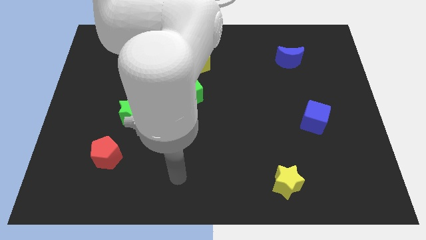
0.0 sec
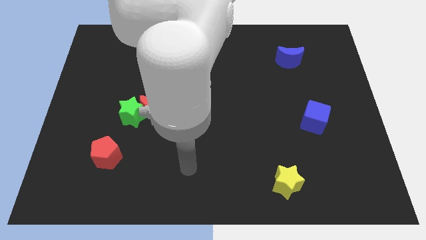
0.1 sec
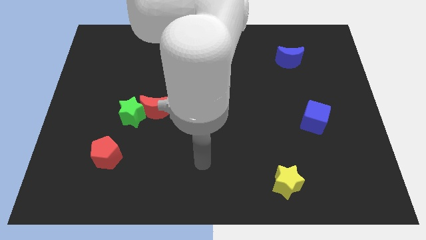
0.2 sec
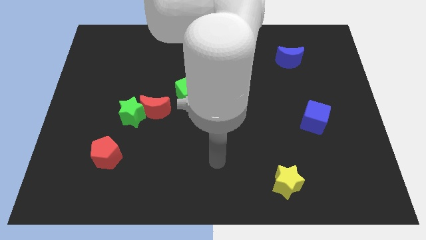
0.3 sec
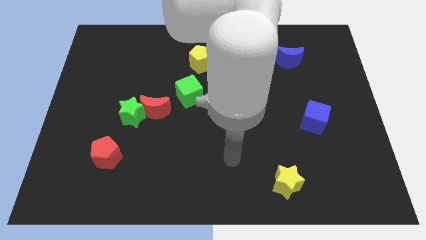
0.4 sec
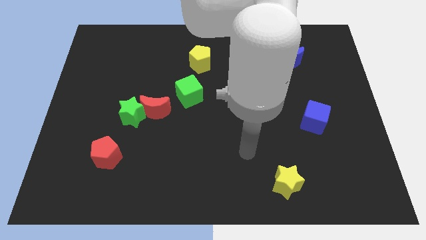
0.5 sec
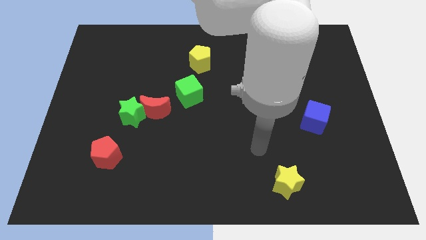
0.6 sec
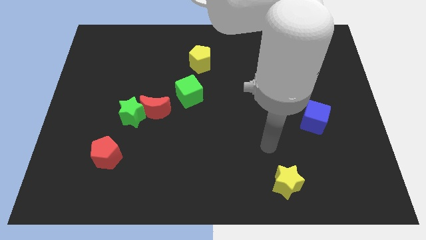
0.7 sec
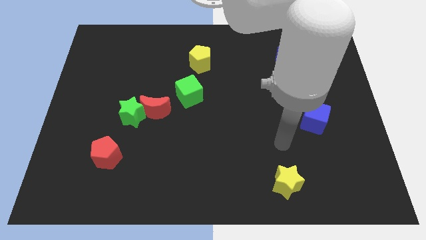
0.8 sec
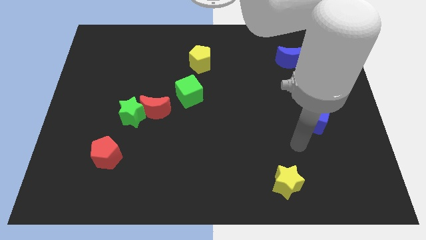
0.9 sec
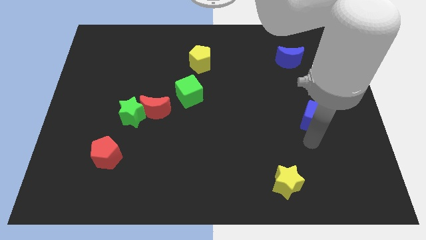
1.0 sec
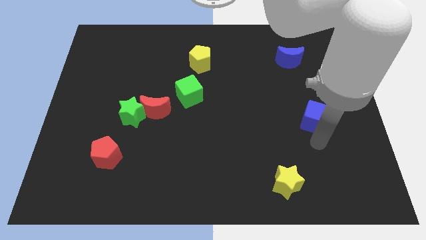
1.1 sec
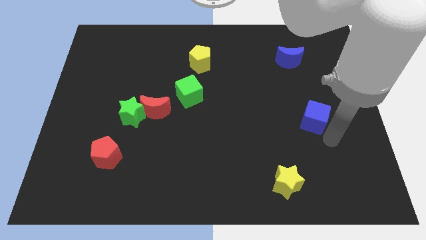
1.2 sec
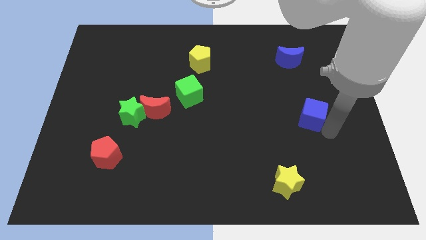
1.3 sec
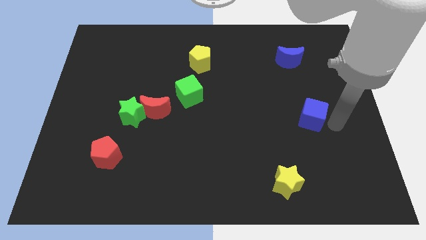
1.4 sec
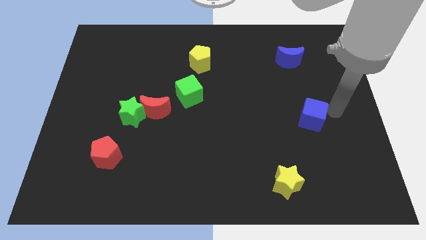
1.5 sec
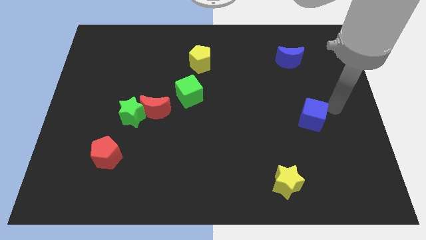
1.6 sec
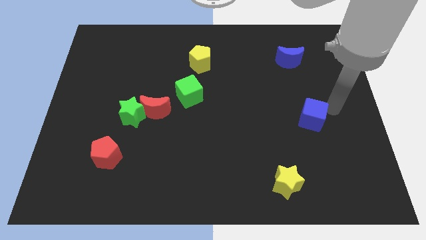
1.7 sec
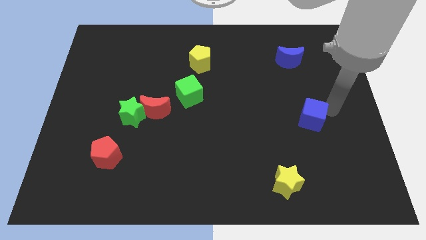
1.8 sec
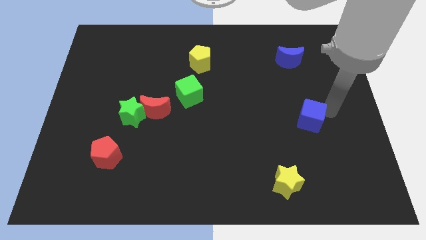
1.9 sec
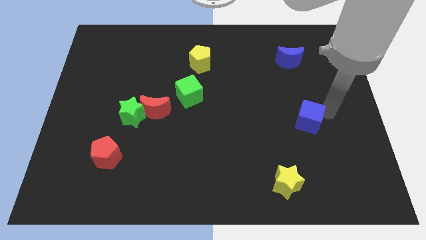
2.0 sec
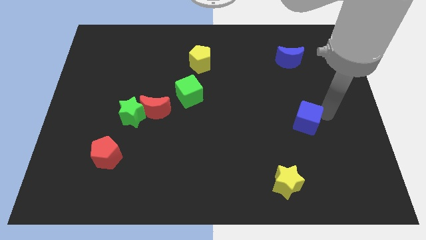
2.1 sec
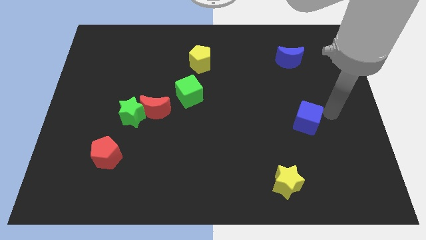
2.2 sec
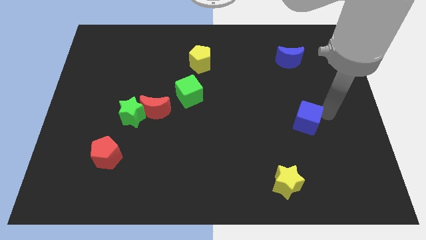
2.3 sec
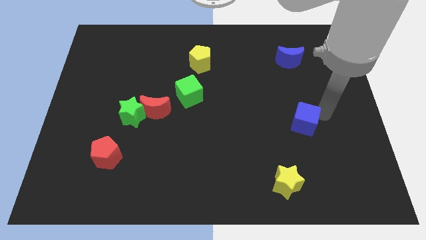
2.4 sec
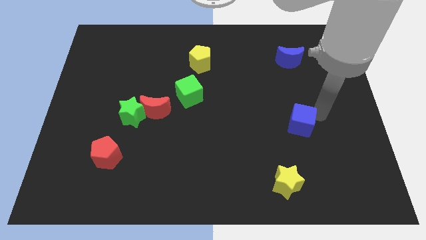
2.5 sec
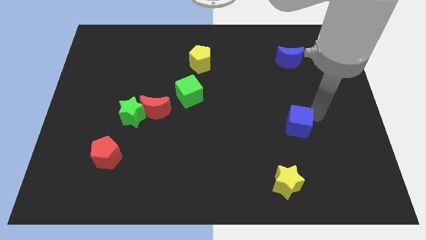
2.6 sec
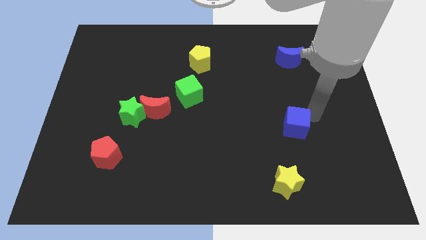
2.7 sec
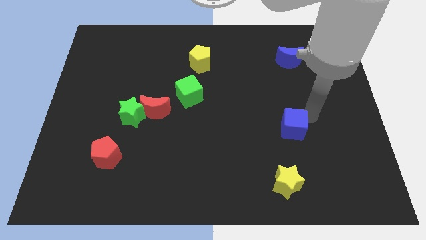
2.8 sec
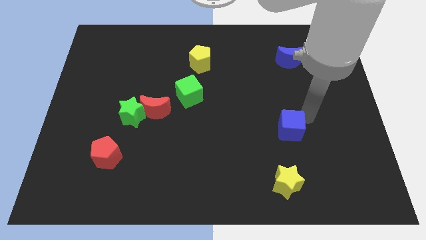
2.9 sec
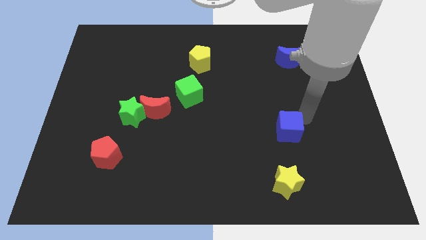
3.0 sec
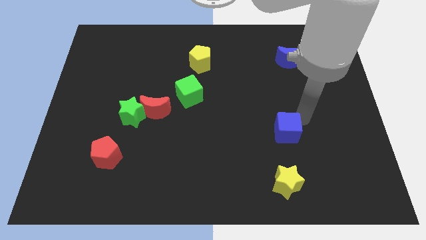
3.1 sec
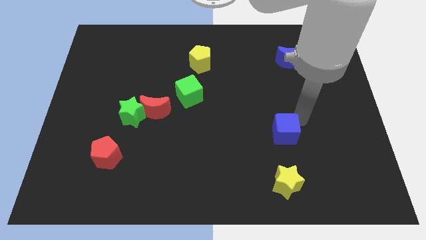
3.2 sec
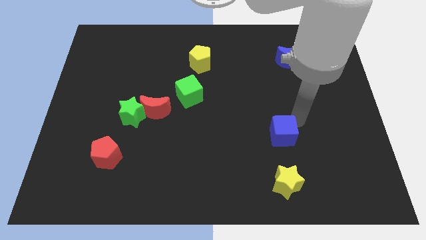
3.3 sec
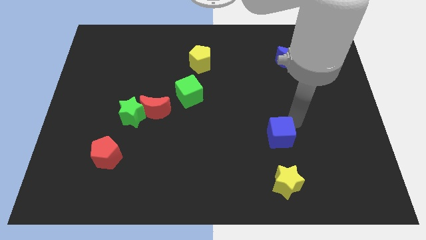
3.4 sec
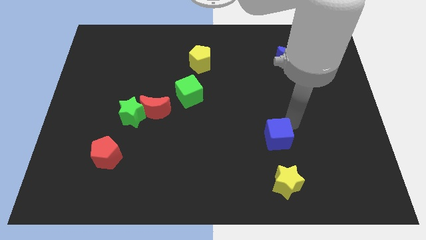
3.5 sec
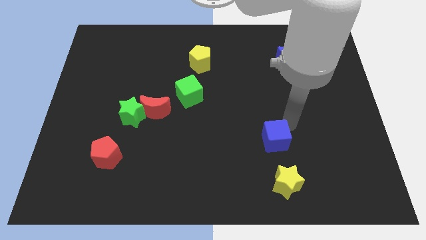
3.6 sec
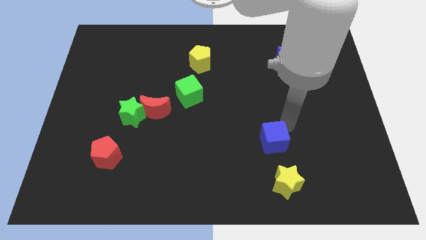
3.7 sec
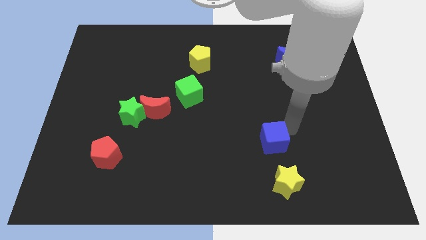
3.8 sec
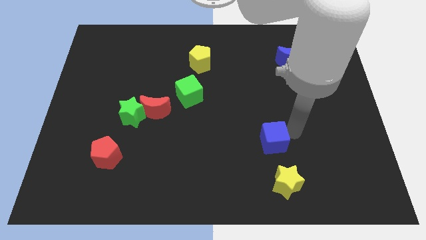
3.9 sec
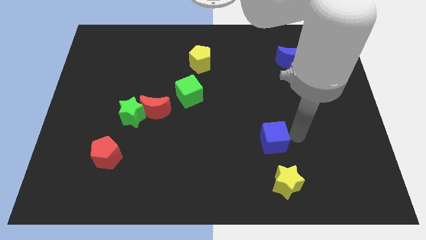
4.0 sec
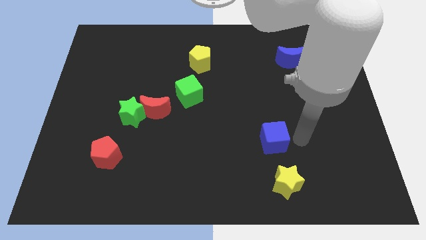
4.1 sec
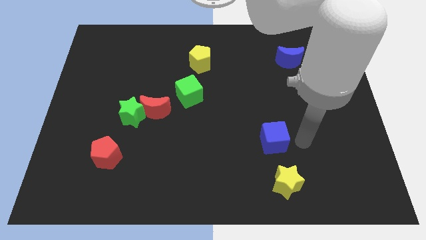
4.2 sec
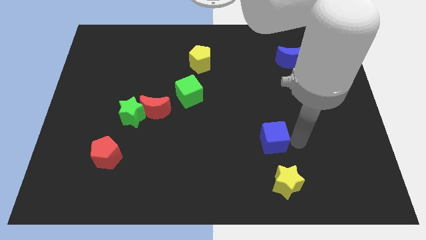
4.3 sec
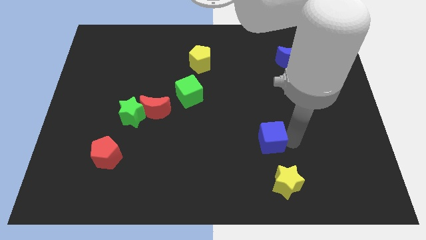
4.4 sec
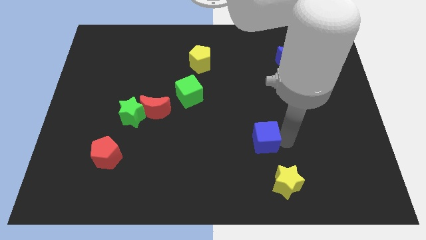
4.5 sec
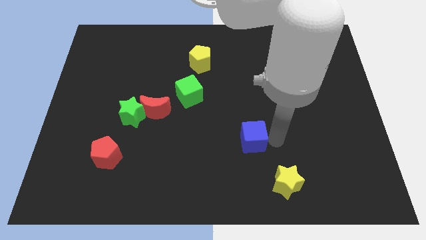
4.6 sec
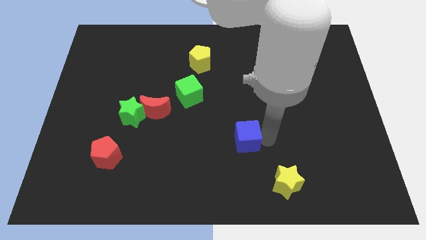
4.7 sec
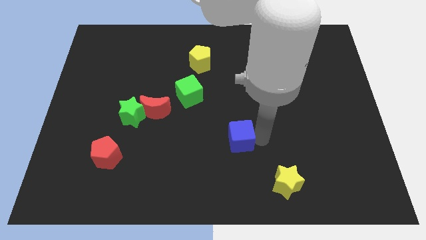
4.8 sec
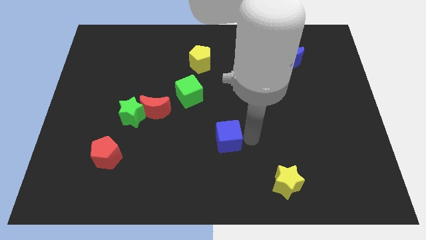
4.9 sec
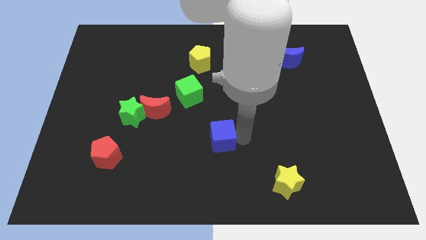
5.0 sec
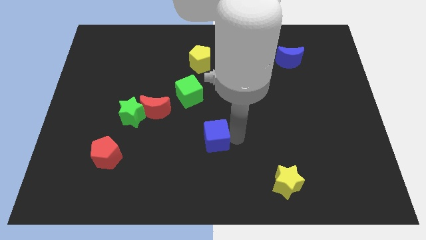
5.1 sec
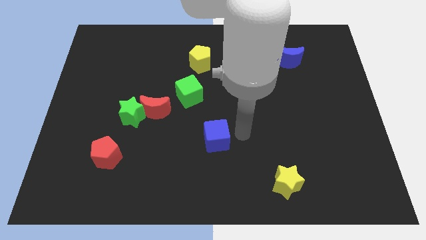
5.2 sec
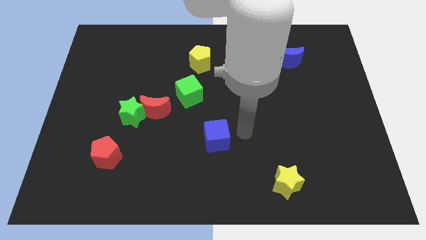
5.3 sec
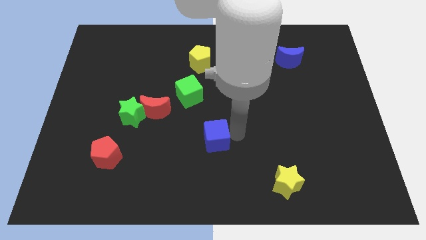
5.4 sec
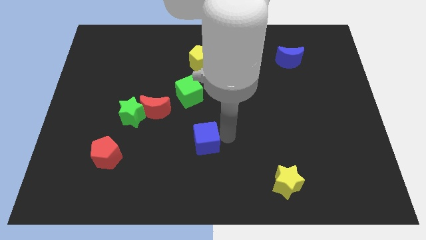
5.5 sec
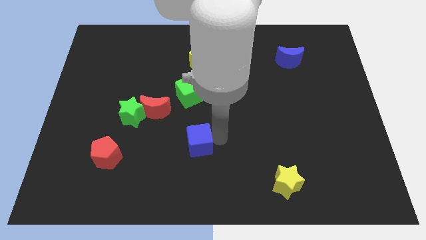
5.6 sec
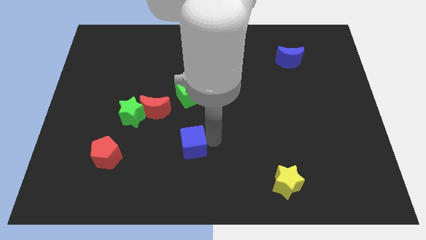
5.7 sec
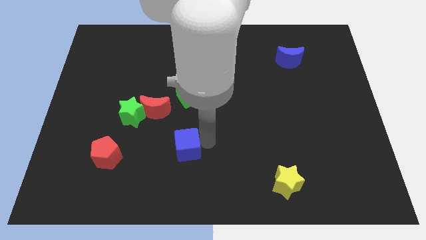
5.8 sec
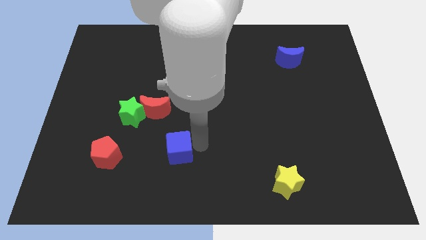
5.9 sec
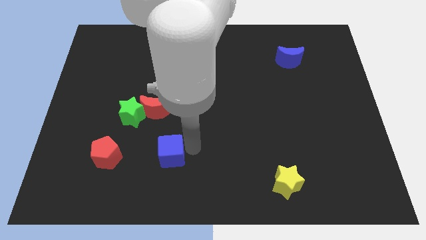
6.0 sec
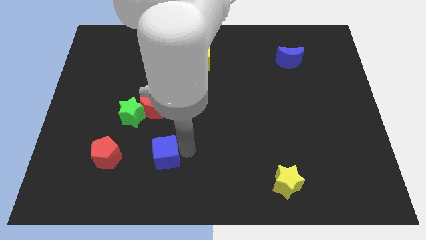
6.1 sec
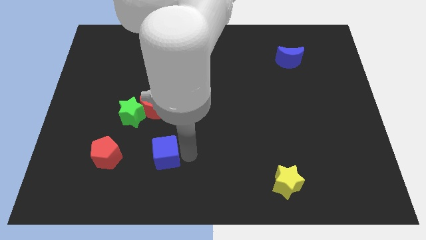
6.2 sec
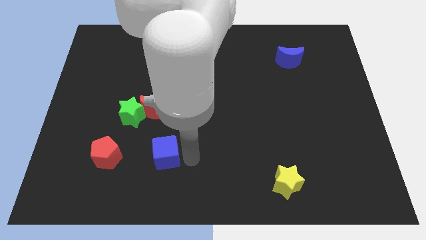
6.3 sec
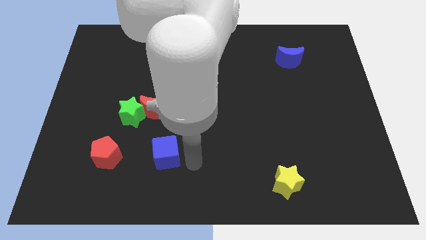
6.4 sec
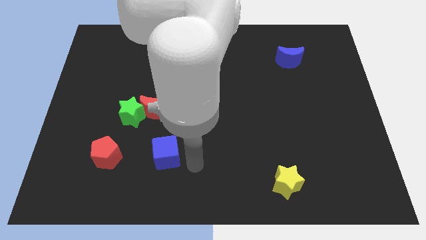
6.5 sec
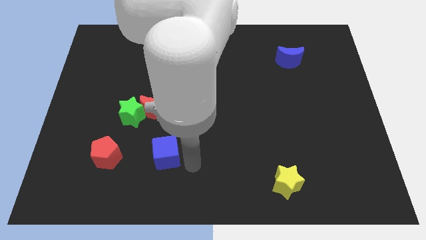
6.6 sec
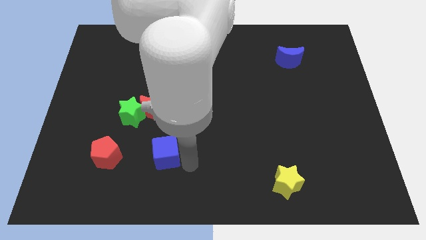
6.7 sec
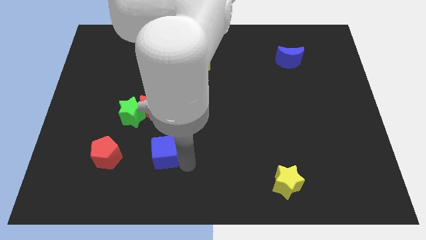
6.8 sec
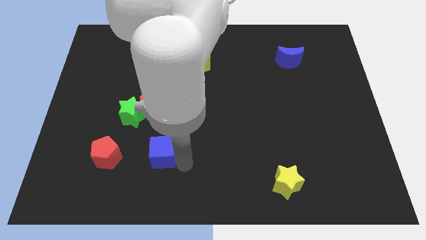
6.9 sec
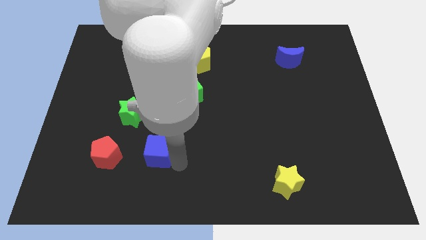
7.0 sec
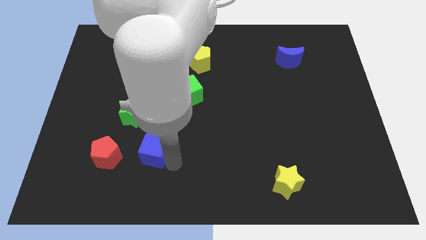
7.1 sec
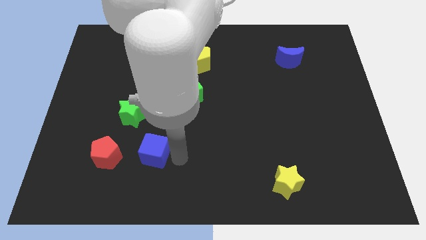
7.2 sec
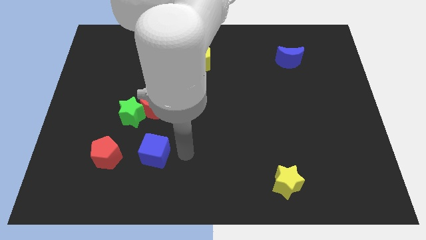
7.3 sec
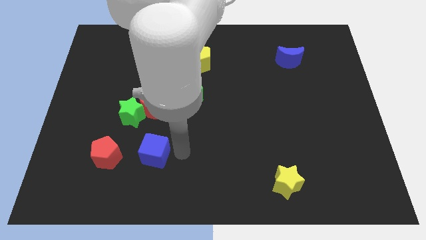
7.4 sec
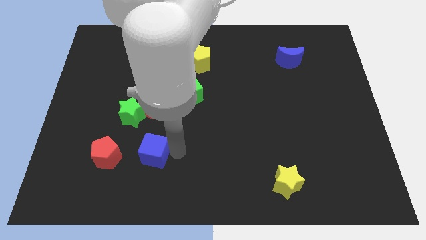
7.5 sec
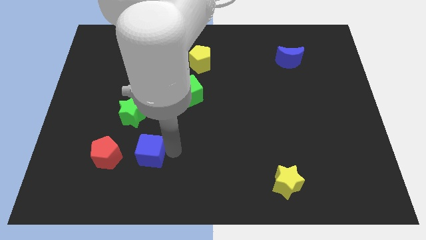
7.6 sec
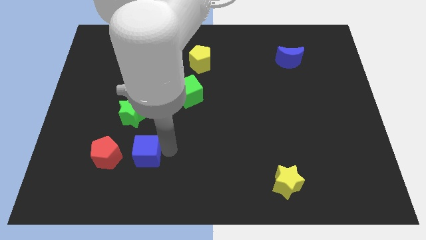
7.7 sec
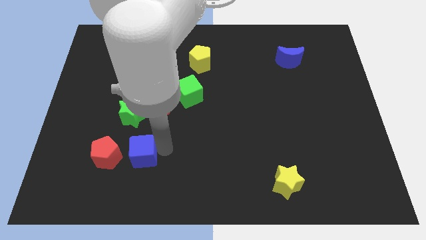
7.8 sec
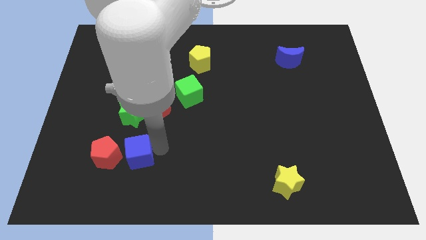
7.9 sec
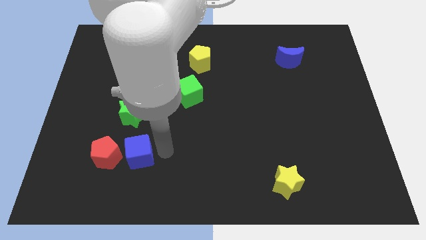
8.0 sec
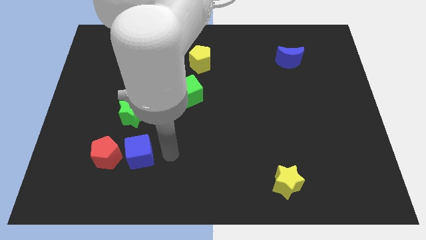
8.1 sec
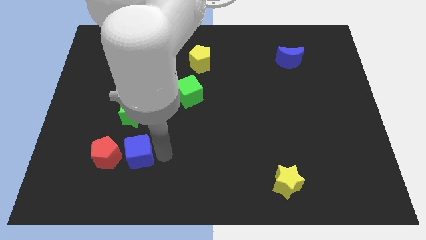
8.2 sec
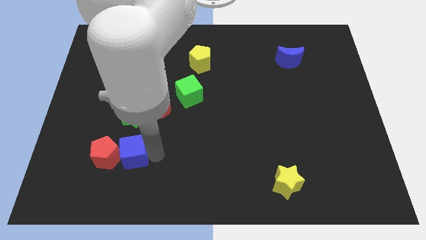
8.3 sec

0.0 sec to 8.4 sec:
push the blue cube next to the red pentagon
